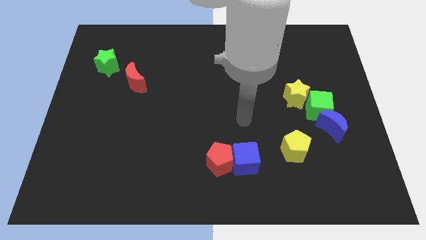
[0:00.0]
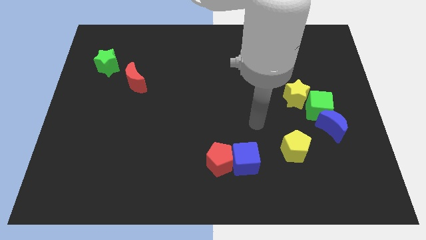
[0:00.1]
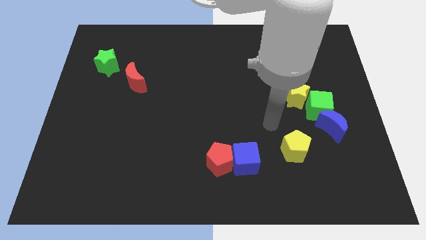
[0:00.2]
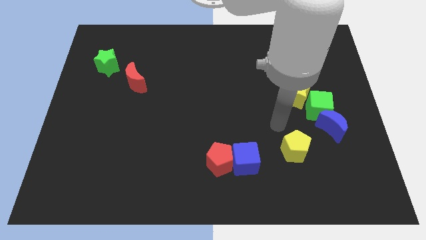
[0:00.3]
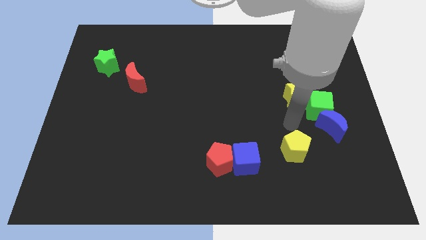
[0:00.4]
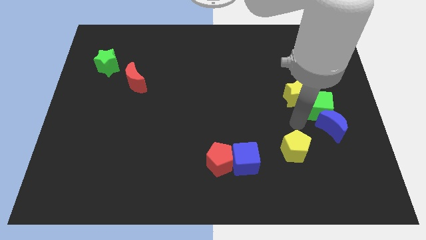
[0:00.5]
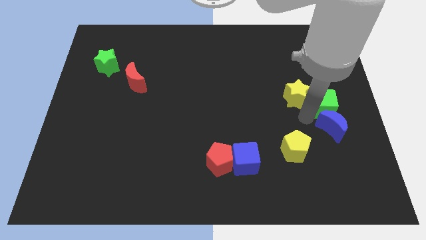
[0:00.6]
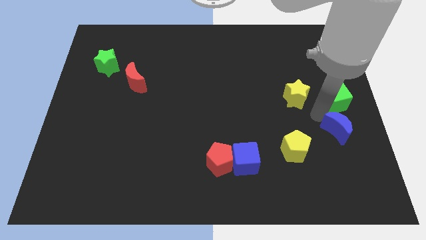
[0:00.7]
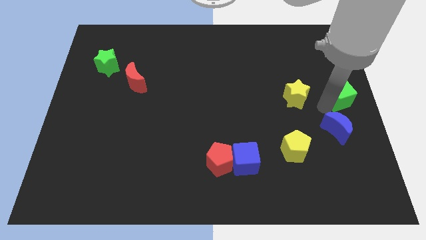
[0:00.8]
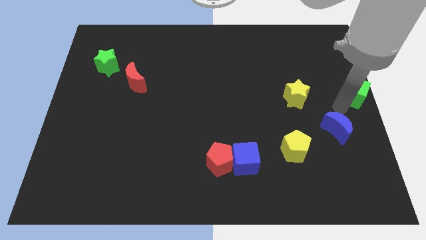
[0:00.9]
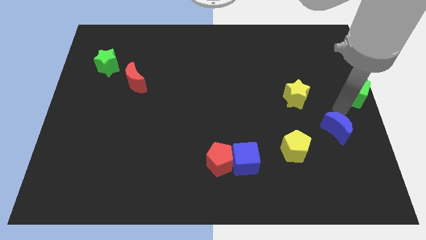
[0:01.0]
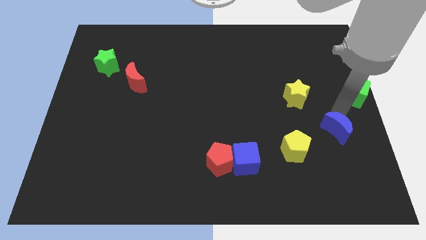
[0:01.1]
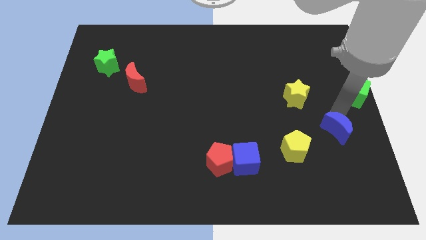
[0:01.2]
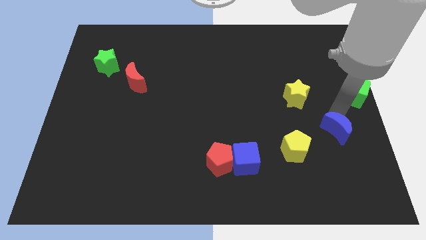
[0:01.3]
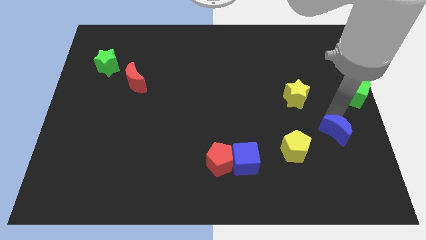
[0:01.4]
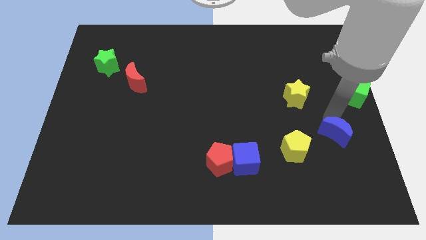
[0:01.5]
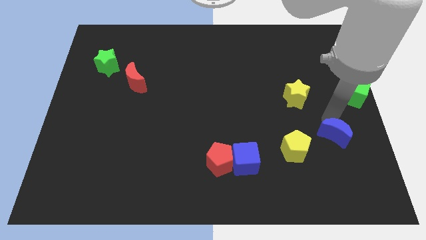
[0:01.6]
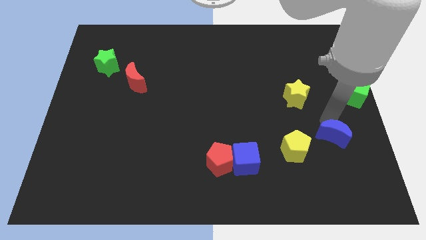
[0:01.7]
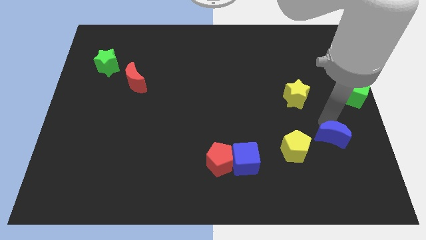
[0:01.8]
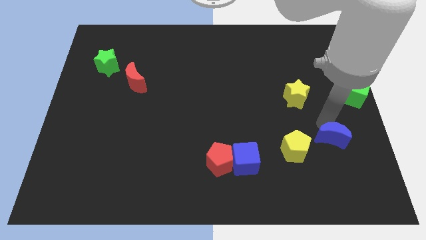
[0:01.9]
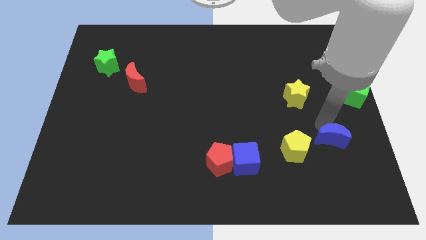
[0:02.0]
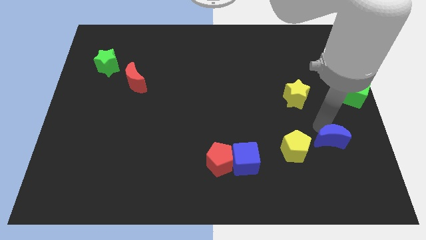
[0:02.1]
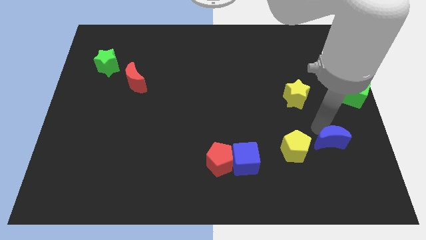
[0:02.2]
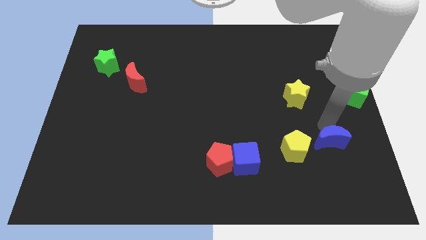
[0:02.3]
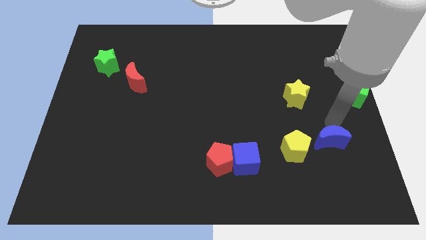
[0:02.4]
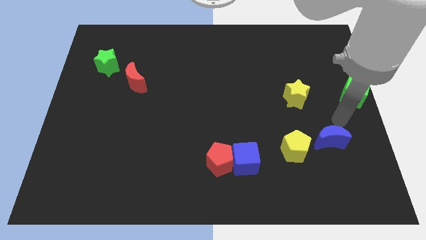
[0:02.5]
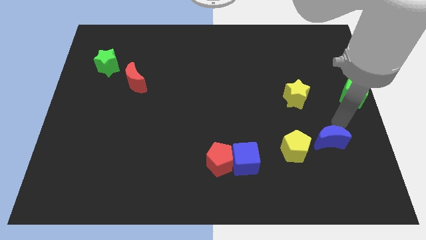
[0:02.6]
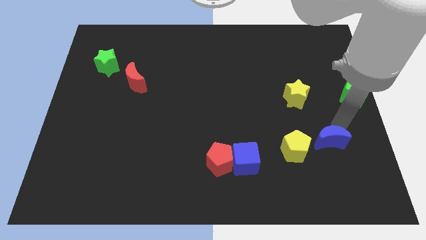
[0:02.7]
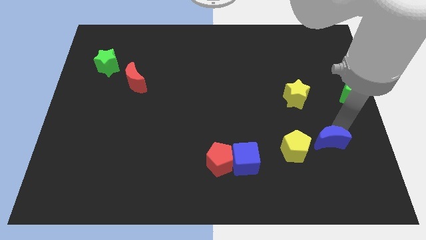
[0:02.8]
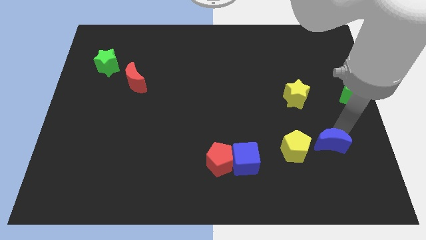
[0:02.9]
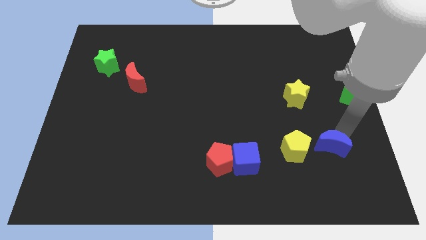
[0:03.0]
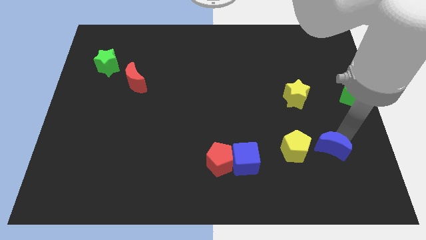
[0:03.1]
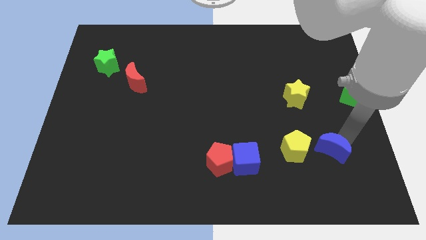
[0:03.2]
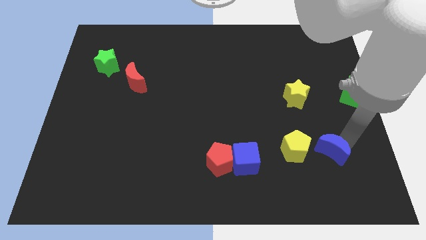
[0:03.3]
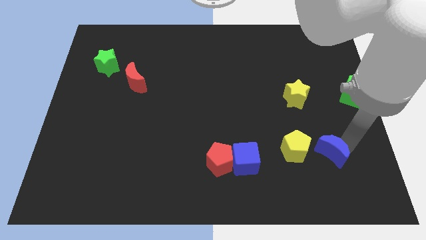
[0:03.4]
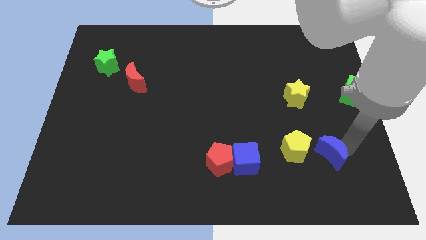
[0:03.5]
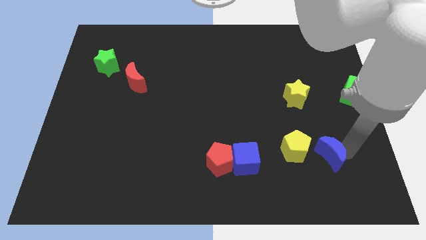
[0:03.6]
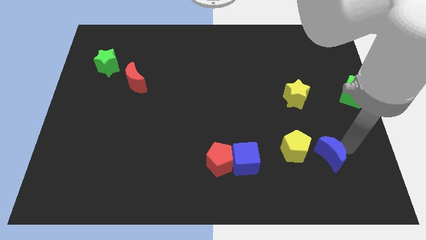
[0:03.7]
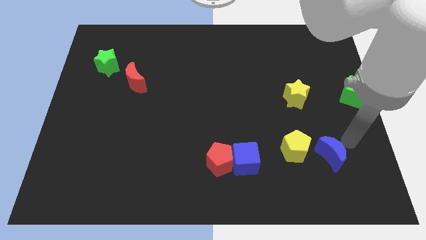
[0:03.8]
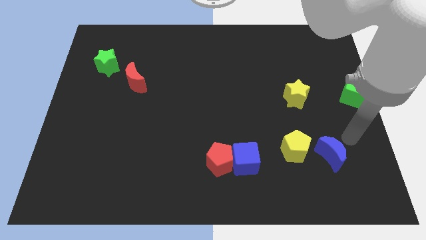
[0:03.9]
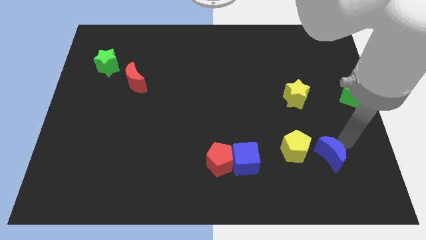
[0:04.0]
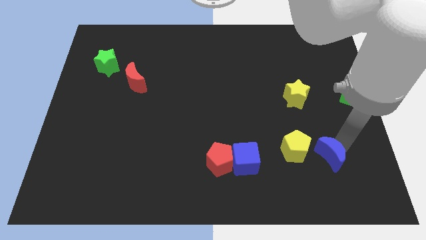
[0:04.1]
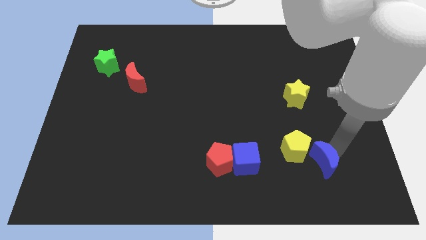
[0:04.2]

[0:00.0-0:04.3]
slightly move the blue moon downwards and left

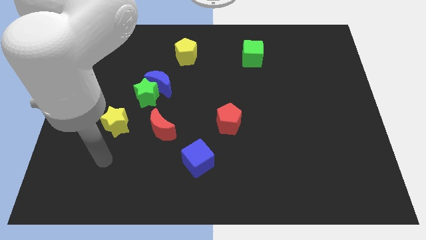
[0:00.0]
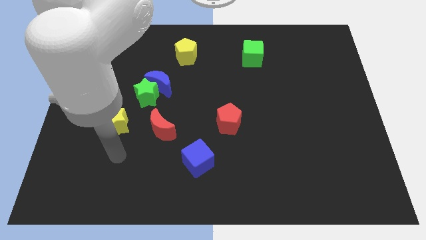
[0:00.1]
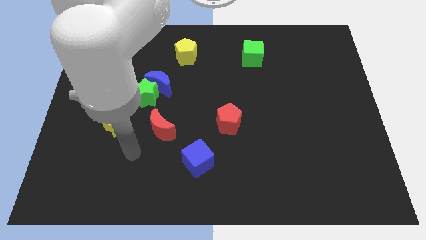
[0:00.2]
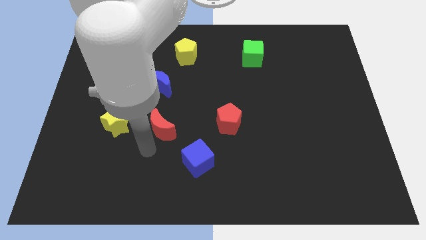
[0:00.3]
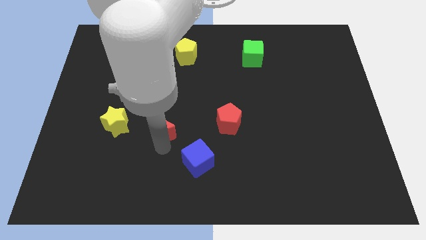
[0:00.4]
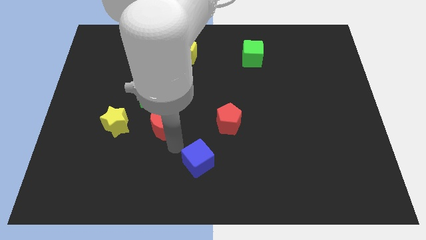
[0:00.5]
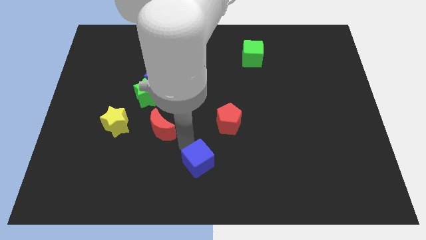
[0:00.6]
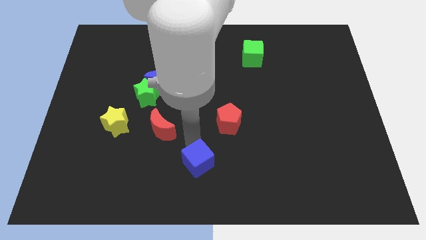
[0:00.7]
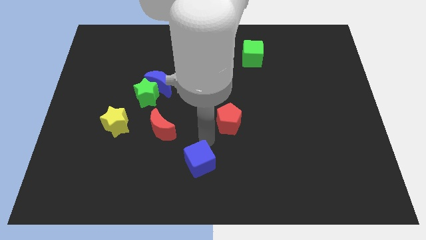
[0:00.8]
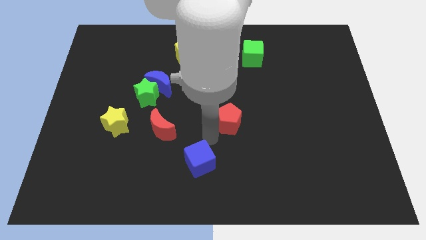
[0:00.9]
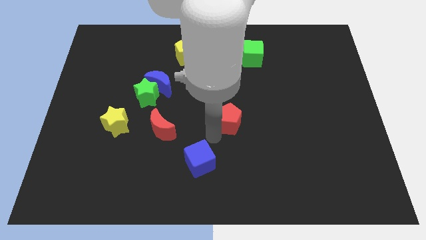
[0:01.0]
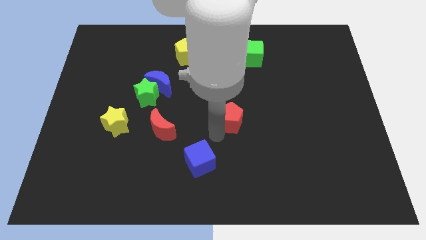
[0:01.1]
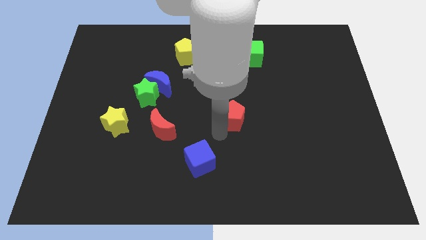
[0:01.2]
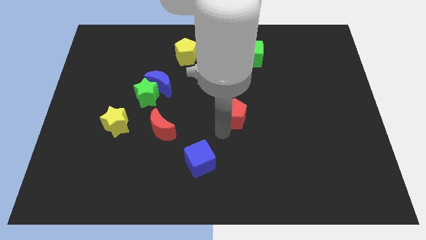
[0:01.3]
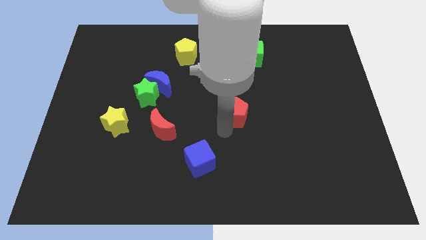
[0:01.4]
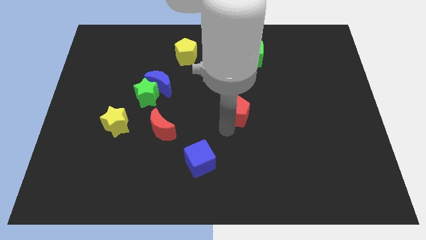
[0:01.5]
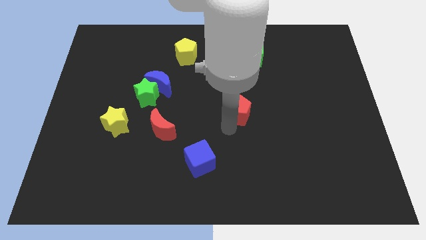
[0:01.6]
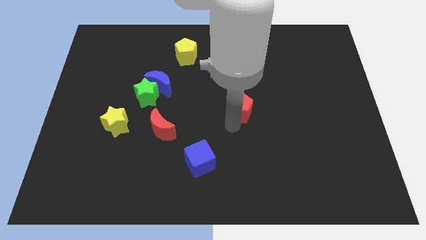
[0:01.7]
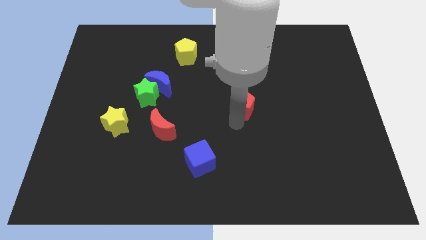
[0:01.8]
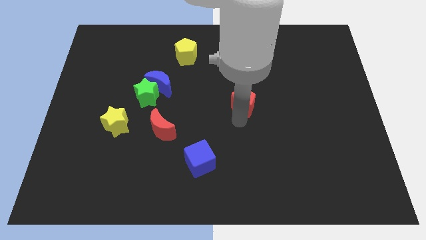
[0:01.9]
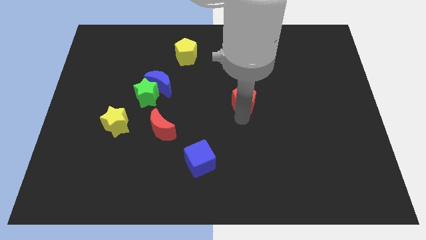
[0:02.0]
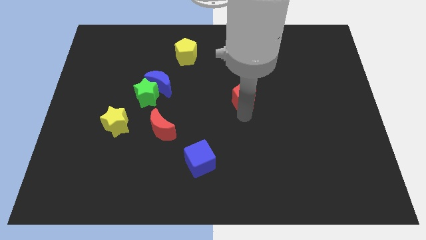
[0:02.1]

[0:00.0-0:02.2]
slide the red pentagon up and then right a little bit

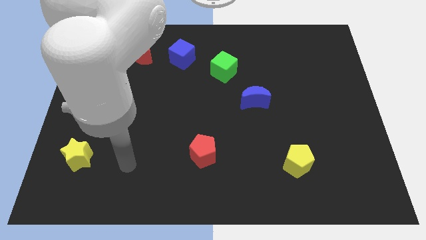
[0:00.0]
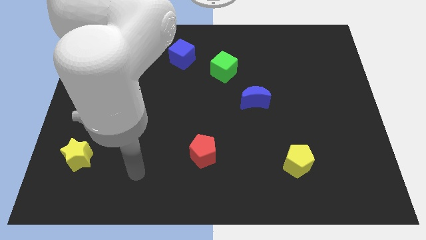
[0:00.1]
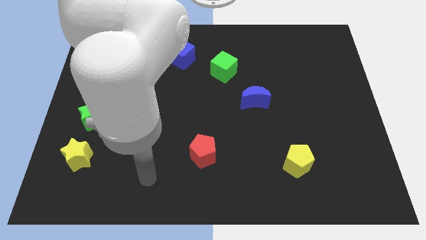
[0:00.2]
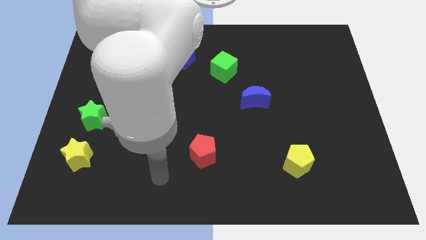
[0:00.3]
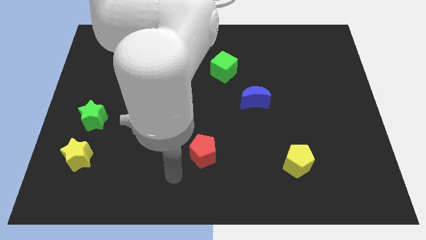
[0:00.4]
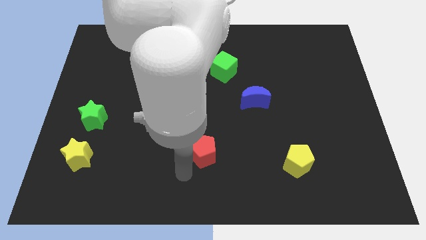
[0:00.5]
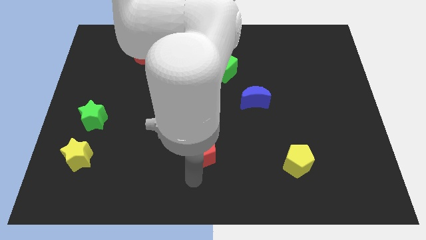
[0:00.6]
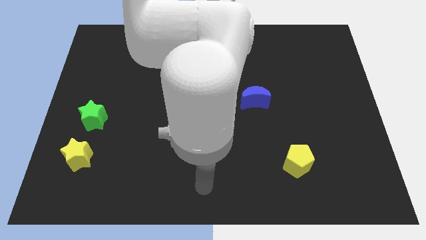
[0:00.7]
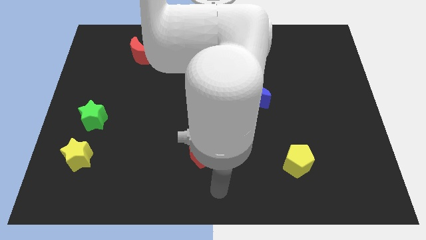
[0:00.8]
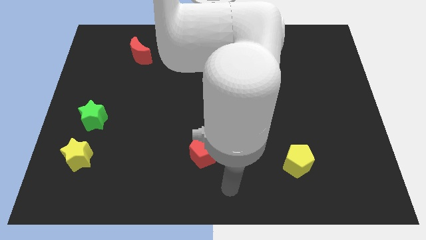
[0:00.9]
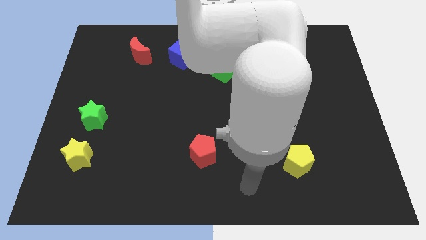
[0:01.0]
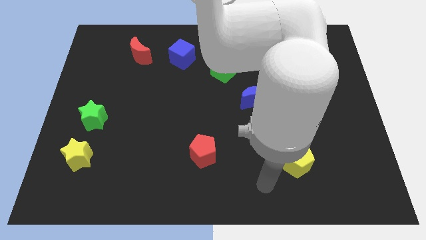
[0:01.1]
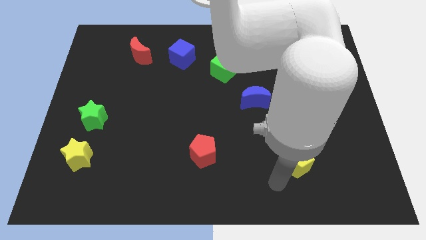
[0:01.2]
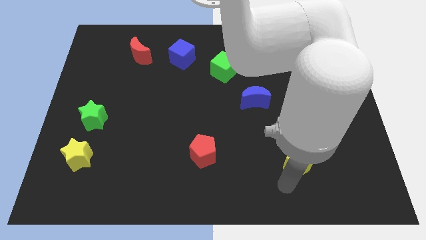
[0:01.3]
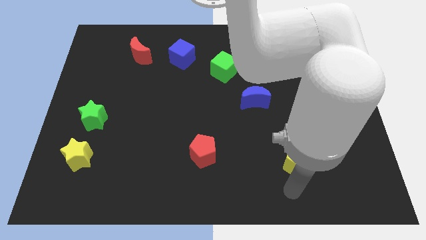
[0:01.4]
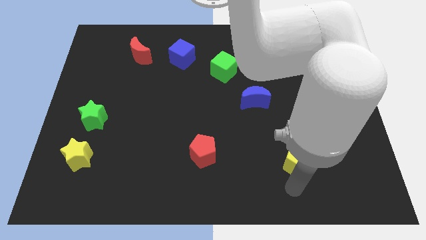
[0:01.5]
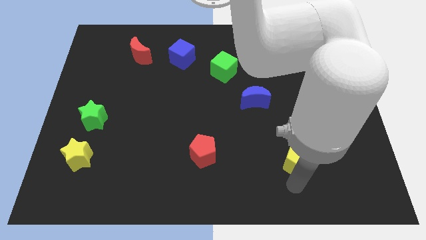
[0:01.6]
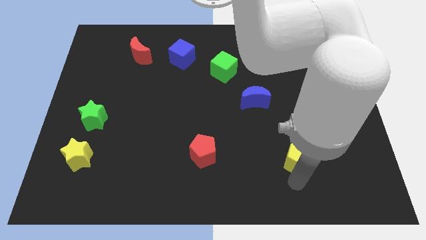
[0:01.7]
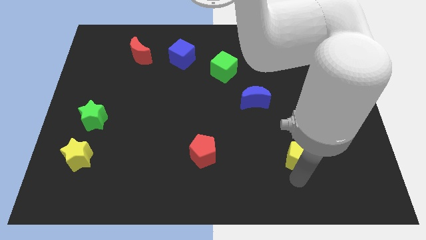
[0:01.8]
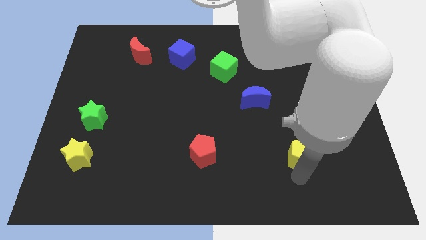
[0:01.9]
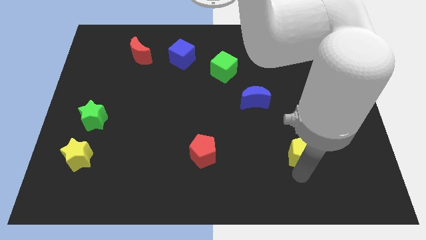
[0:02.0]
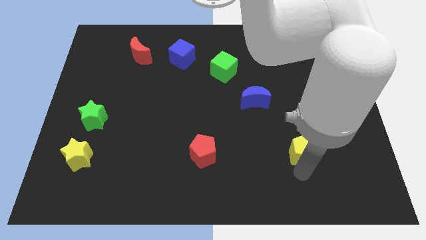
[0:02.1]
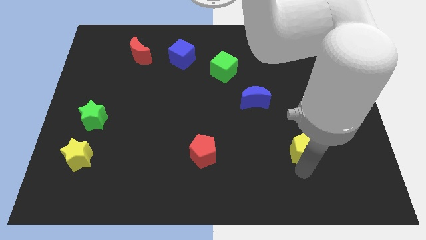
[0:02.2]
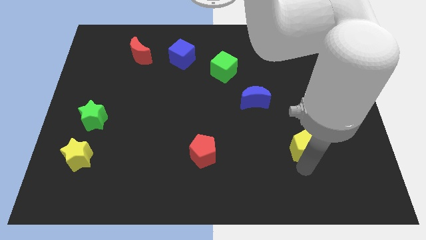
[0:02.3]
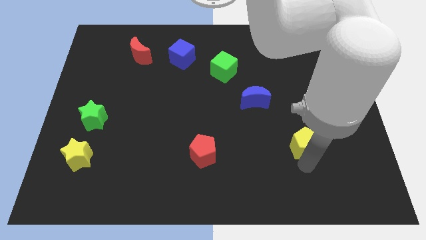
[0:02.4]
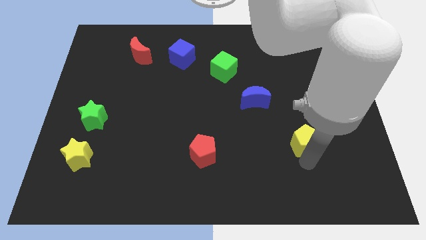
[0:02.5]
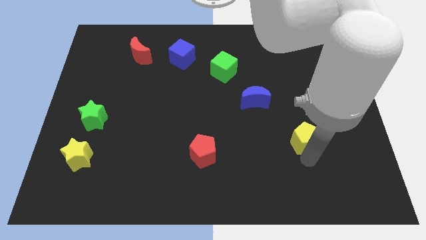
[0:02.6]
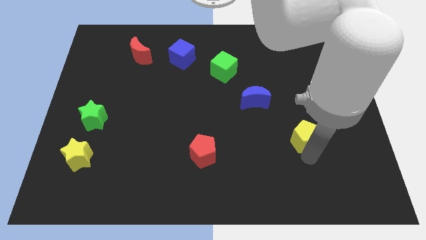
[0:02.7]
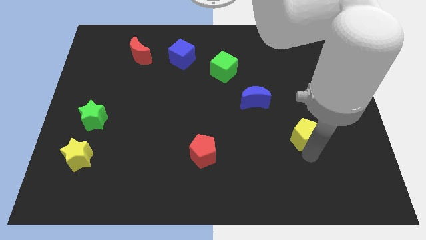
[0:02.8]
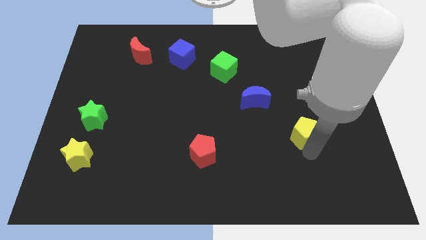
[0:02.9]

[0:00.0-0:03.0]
slightly push the yellow pentagon upwards
